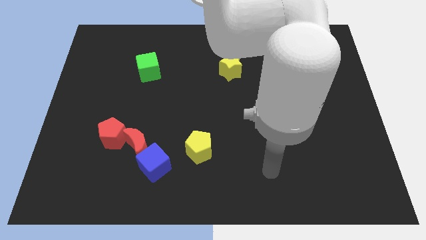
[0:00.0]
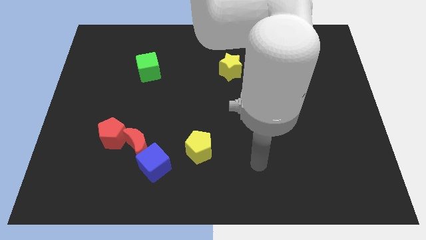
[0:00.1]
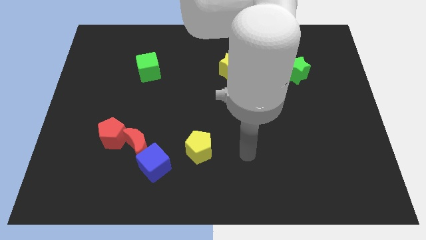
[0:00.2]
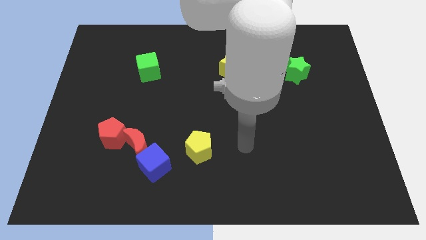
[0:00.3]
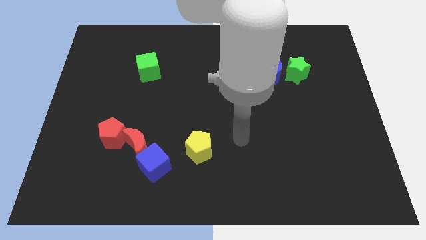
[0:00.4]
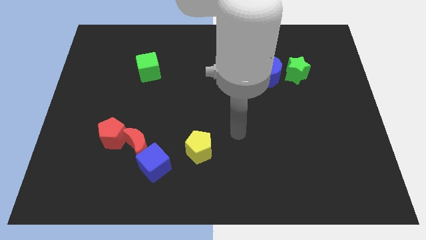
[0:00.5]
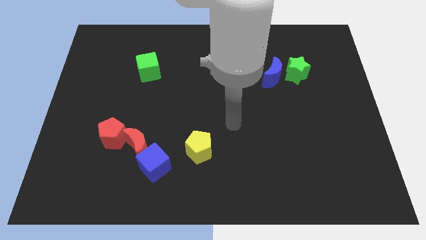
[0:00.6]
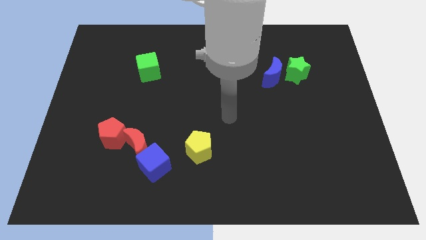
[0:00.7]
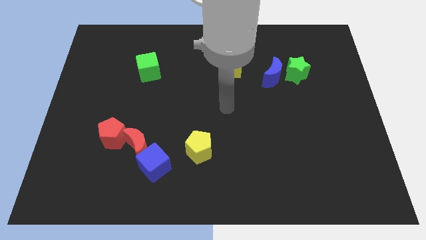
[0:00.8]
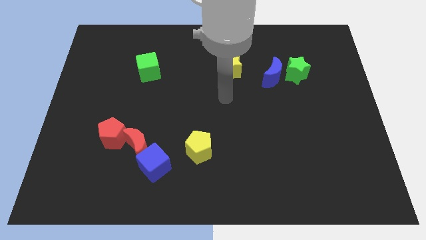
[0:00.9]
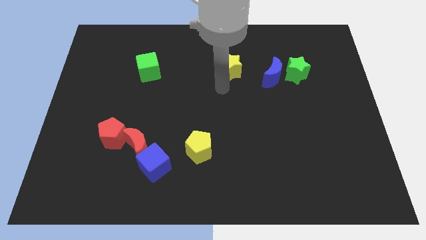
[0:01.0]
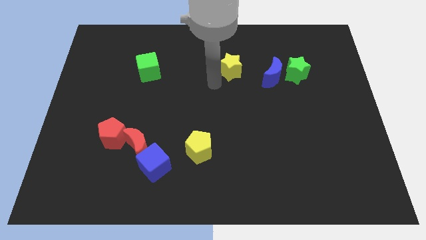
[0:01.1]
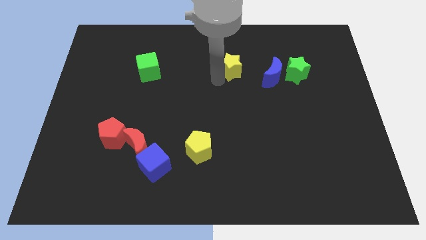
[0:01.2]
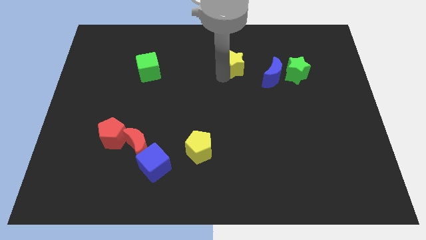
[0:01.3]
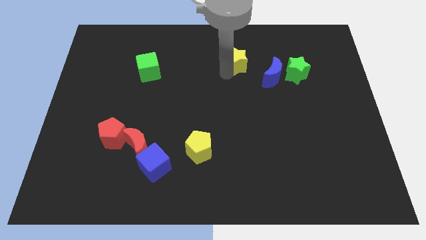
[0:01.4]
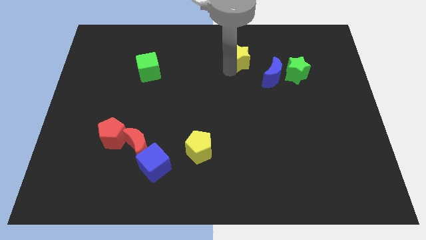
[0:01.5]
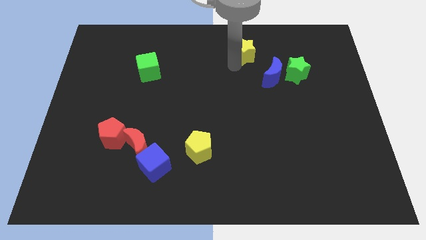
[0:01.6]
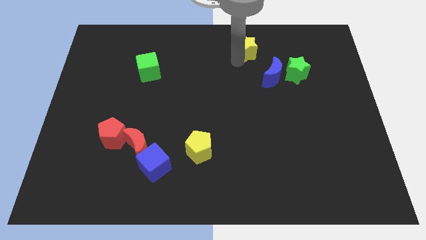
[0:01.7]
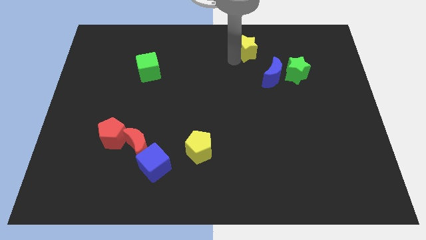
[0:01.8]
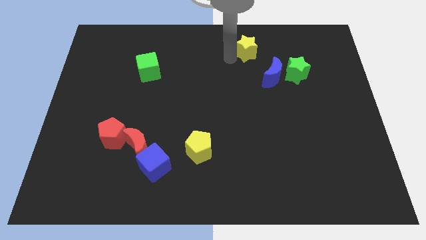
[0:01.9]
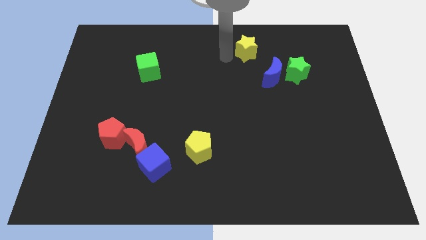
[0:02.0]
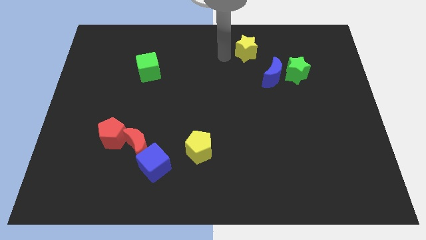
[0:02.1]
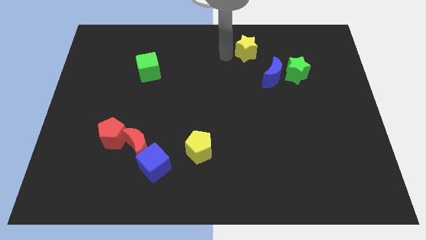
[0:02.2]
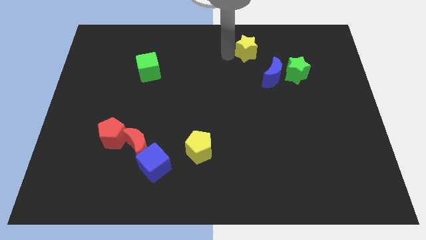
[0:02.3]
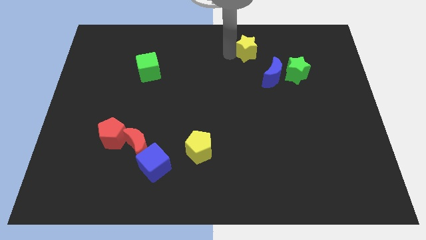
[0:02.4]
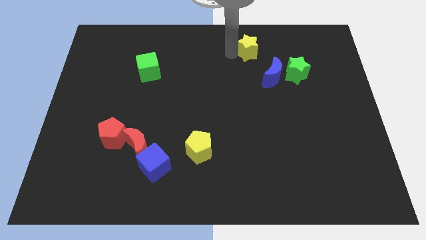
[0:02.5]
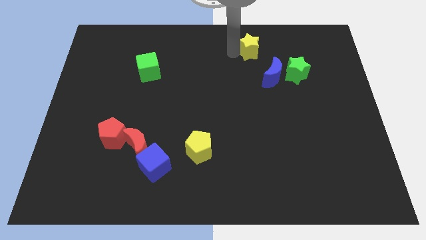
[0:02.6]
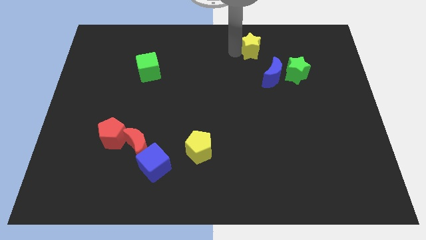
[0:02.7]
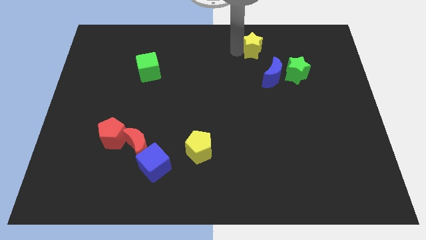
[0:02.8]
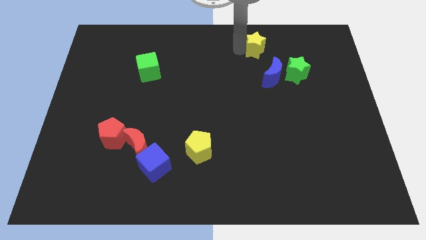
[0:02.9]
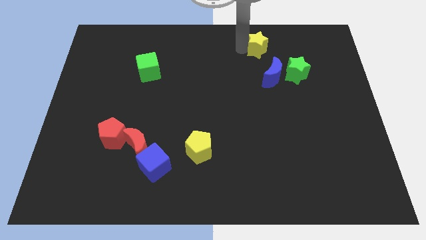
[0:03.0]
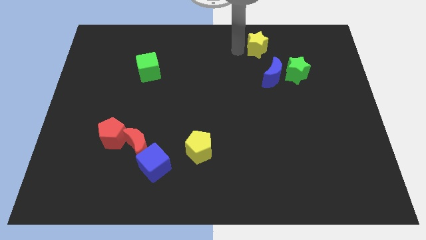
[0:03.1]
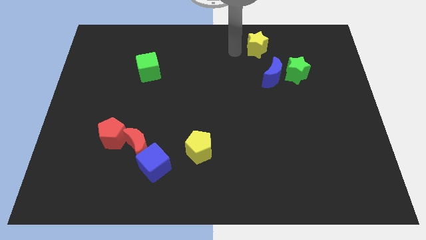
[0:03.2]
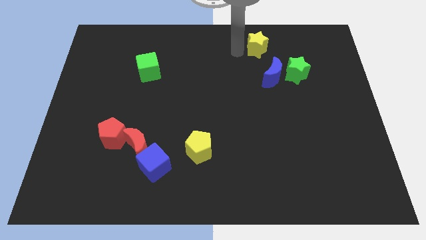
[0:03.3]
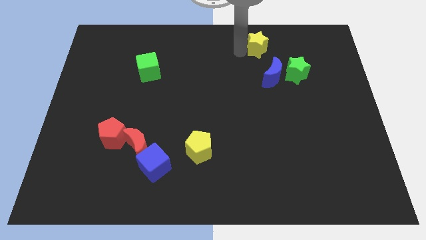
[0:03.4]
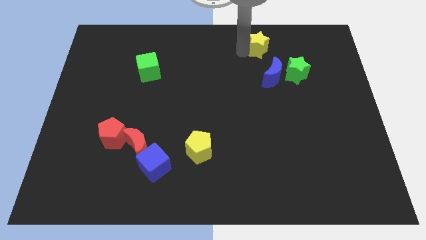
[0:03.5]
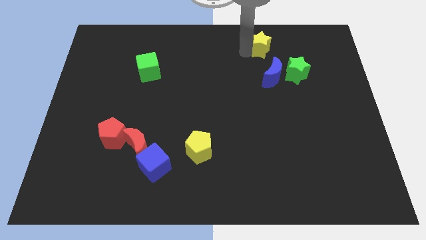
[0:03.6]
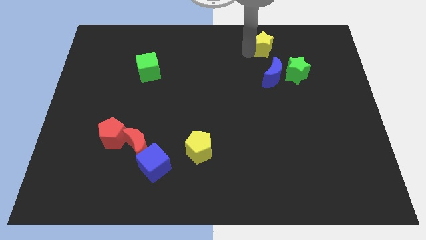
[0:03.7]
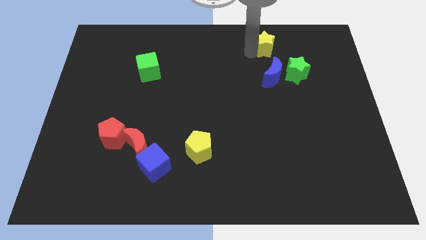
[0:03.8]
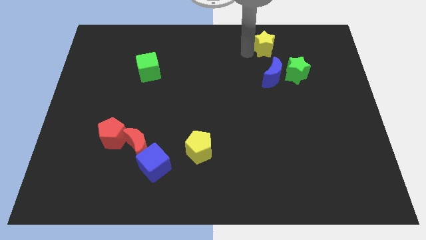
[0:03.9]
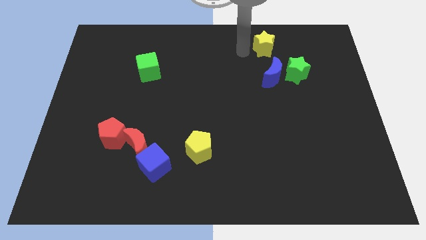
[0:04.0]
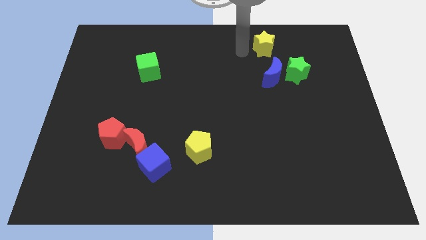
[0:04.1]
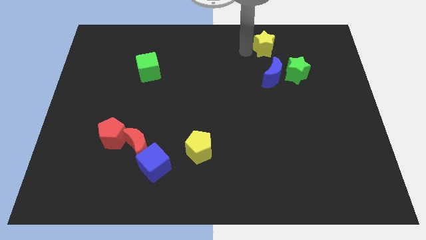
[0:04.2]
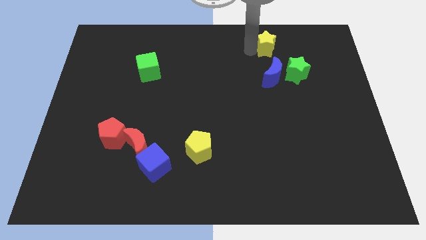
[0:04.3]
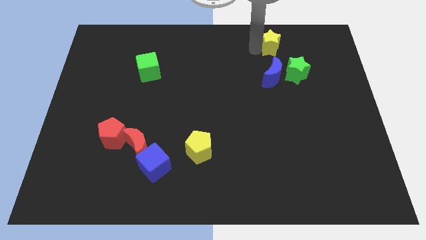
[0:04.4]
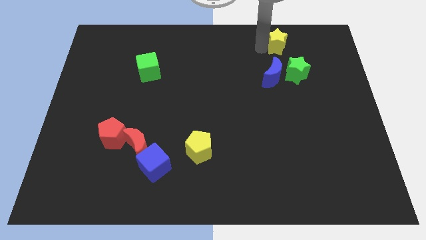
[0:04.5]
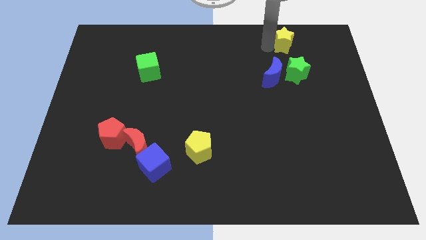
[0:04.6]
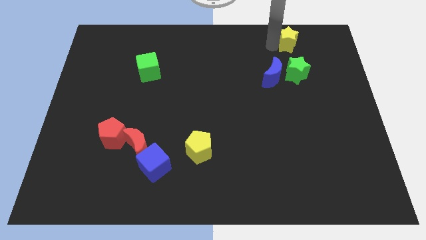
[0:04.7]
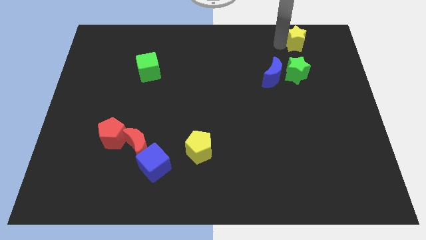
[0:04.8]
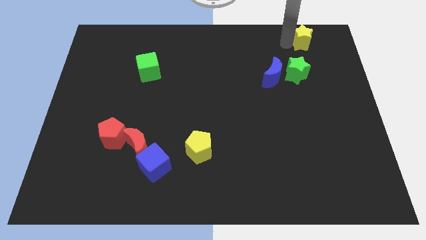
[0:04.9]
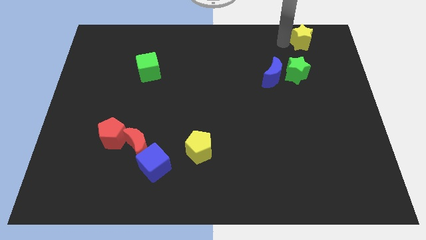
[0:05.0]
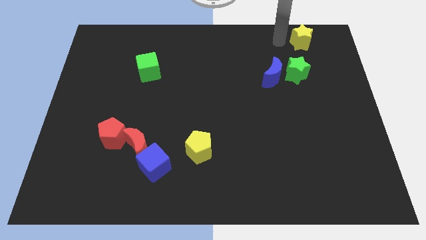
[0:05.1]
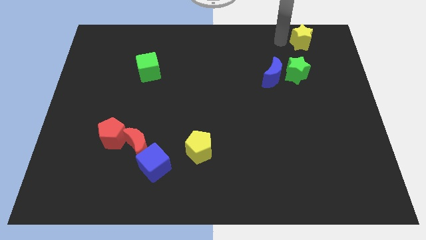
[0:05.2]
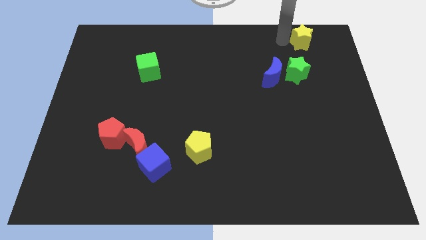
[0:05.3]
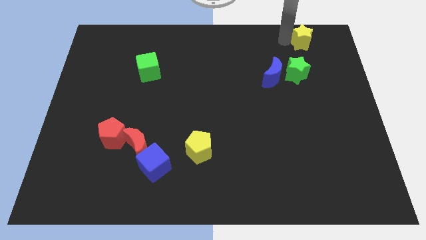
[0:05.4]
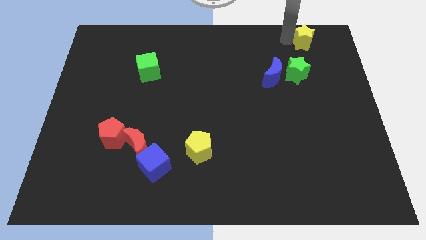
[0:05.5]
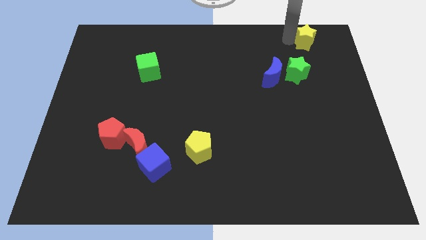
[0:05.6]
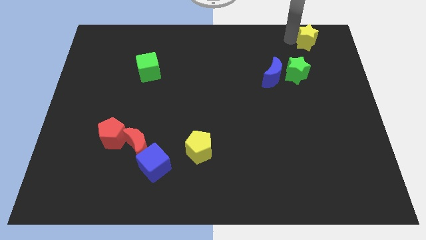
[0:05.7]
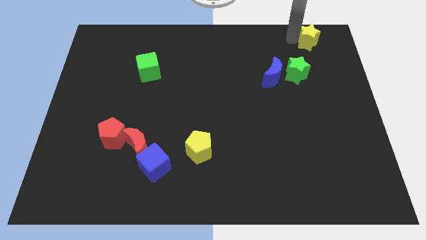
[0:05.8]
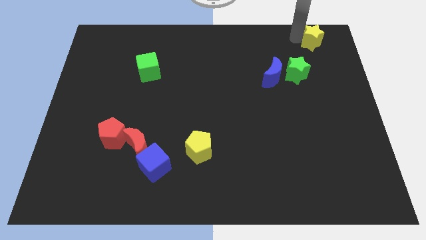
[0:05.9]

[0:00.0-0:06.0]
push the yellow star to the top right

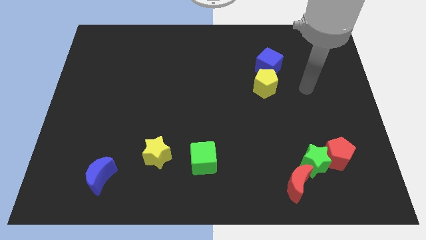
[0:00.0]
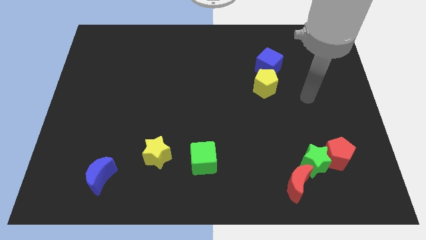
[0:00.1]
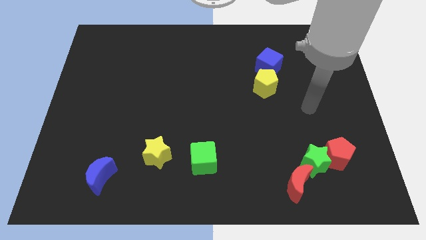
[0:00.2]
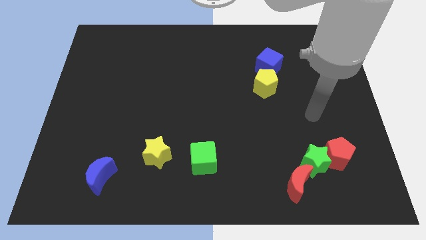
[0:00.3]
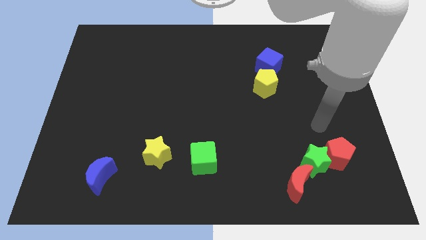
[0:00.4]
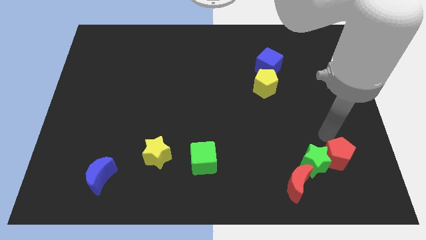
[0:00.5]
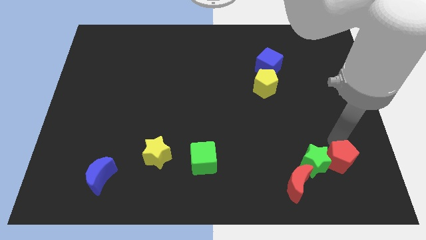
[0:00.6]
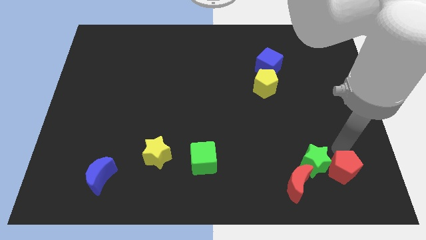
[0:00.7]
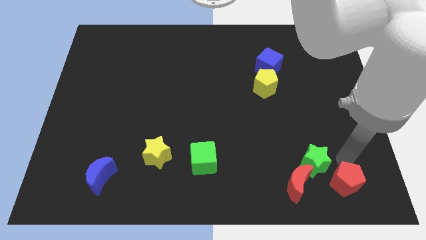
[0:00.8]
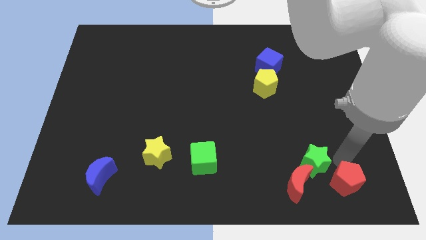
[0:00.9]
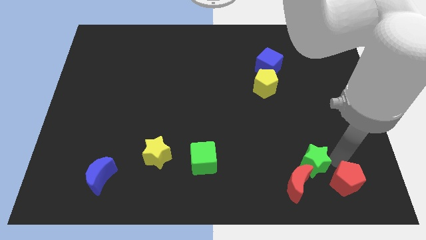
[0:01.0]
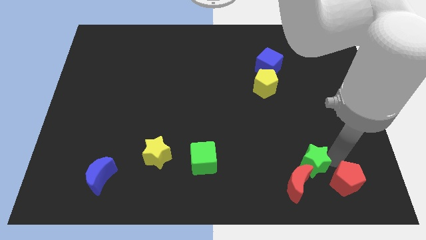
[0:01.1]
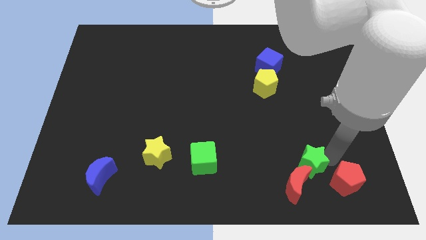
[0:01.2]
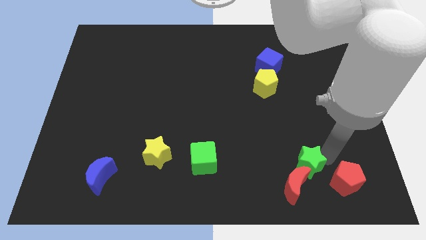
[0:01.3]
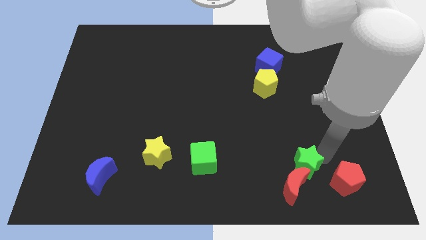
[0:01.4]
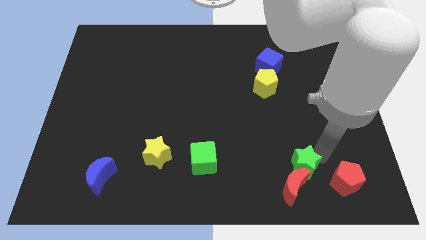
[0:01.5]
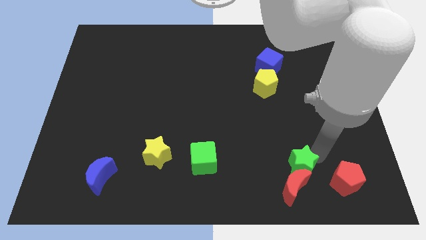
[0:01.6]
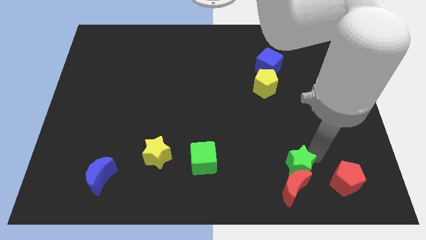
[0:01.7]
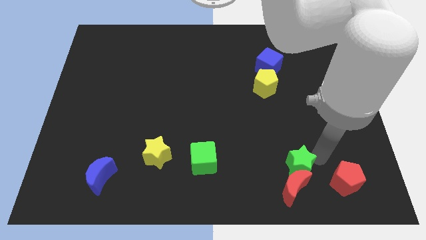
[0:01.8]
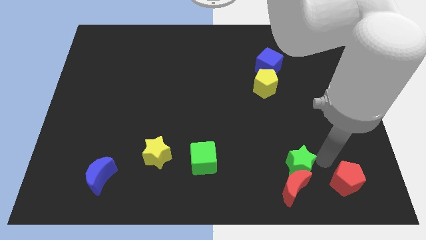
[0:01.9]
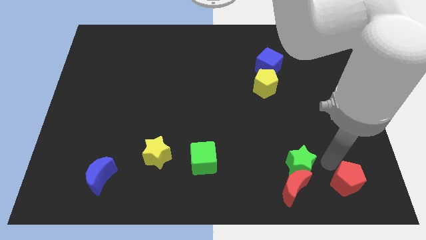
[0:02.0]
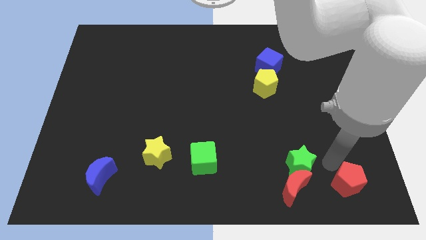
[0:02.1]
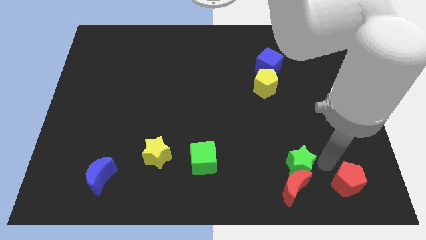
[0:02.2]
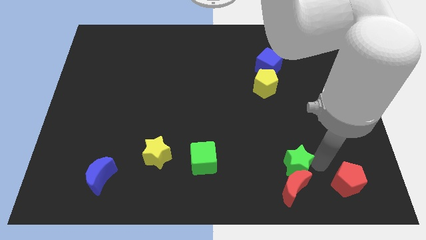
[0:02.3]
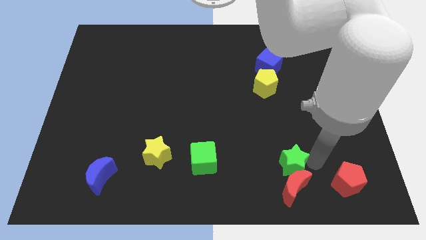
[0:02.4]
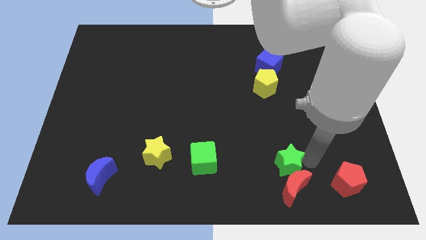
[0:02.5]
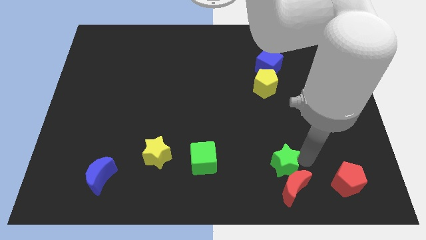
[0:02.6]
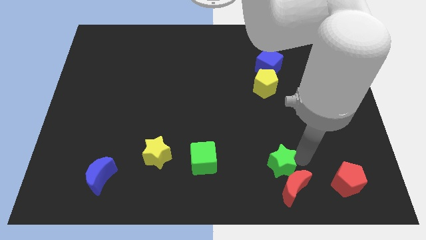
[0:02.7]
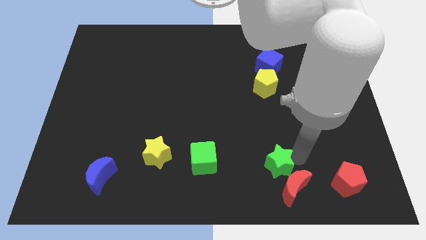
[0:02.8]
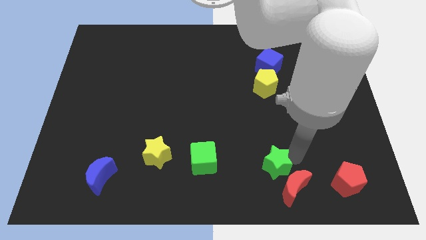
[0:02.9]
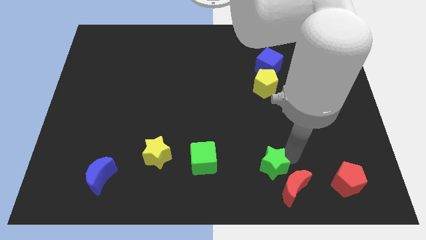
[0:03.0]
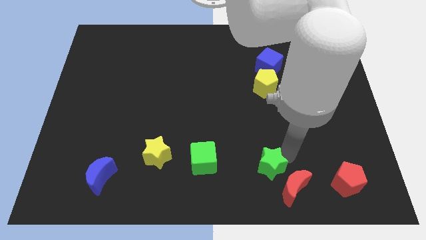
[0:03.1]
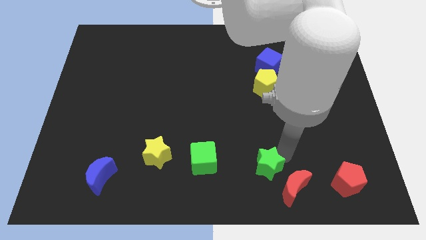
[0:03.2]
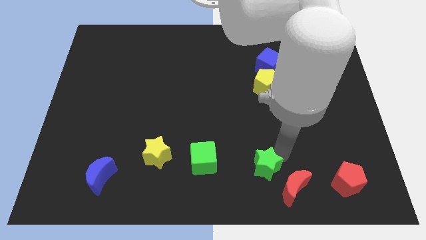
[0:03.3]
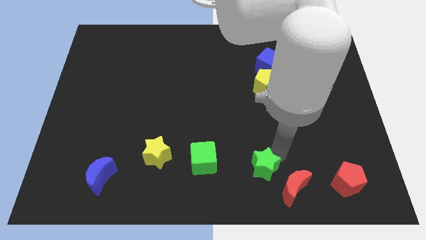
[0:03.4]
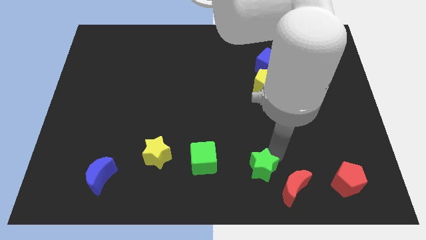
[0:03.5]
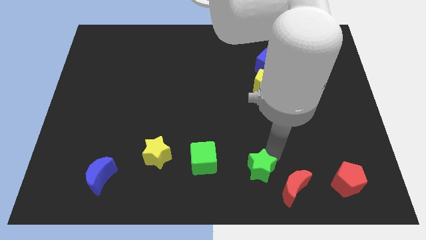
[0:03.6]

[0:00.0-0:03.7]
push the green star to the bottom side
